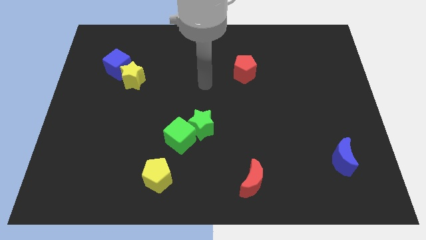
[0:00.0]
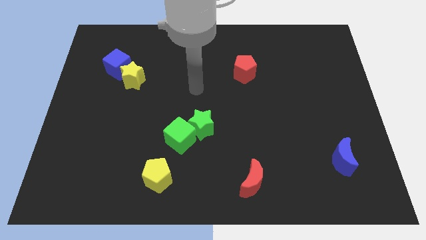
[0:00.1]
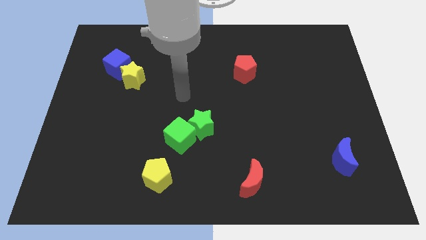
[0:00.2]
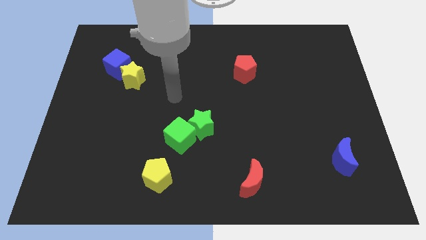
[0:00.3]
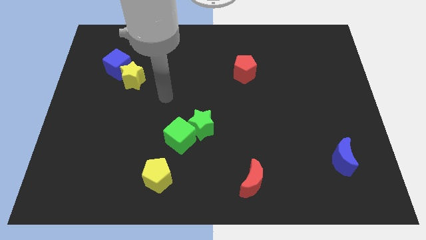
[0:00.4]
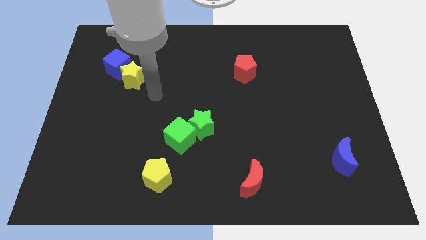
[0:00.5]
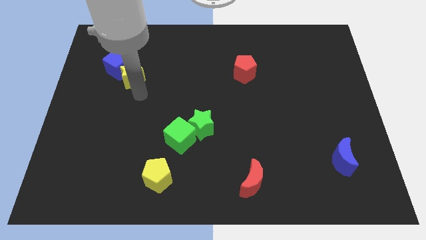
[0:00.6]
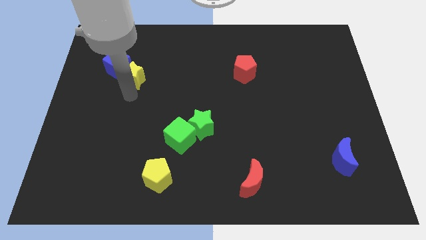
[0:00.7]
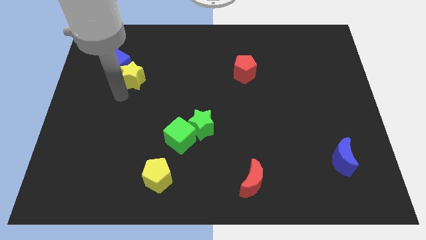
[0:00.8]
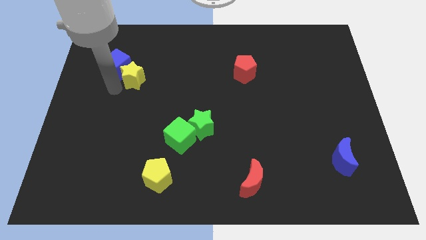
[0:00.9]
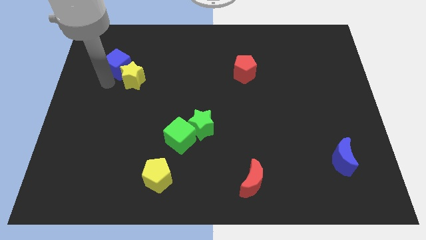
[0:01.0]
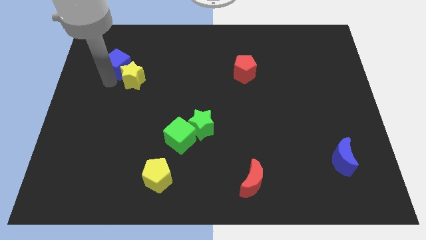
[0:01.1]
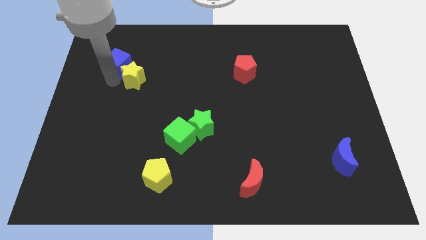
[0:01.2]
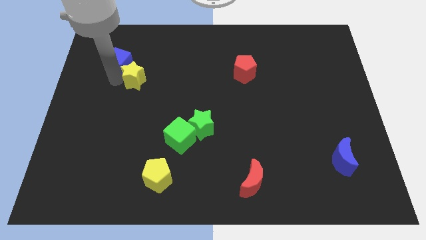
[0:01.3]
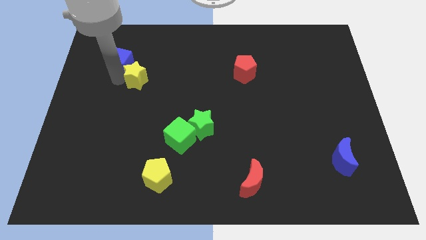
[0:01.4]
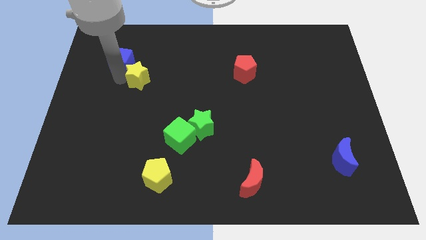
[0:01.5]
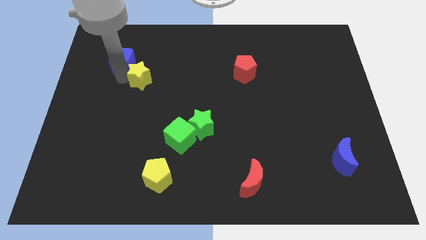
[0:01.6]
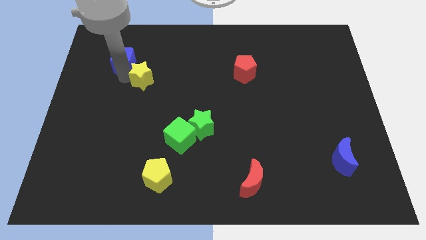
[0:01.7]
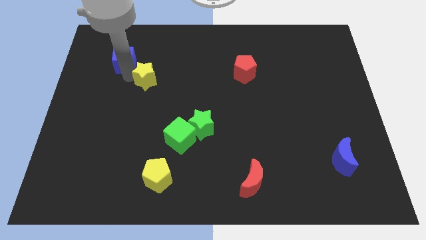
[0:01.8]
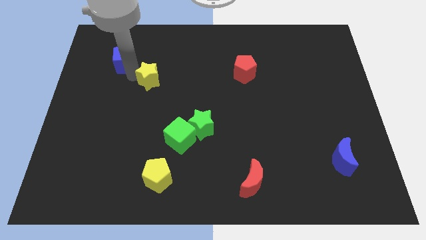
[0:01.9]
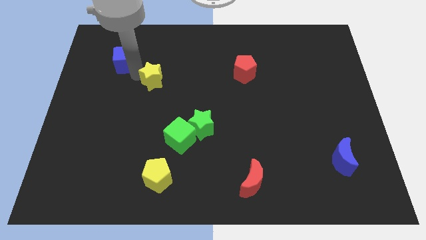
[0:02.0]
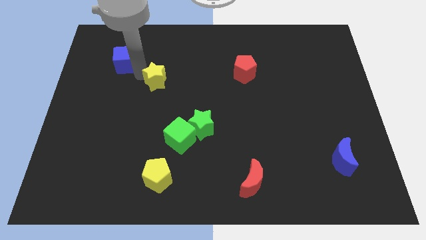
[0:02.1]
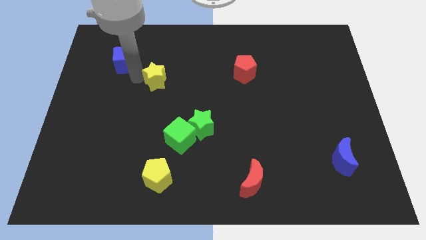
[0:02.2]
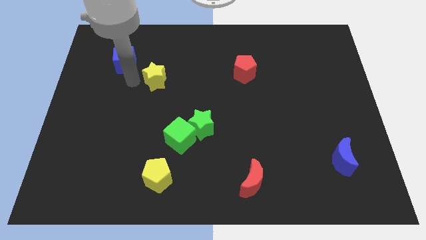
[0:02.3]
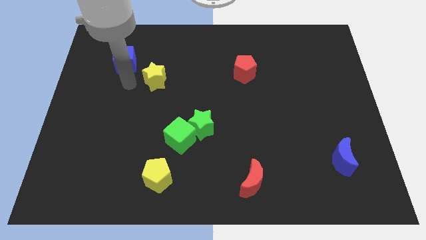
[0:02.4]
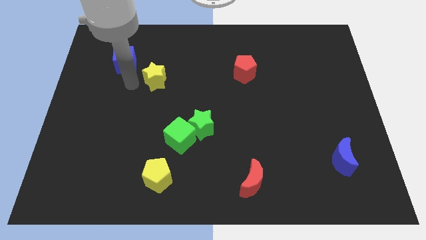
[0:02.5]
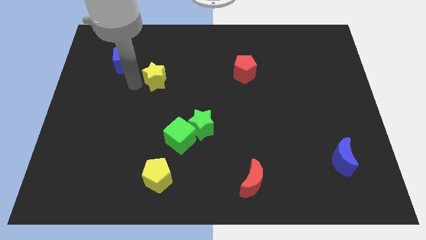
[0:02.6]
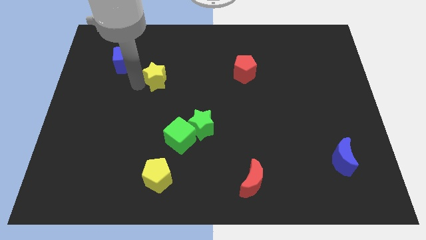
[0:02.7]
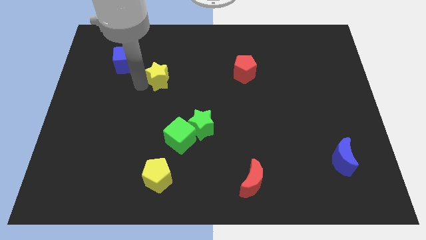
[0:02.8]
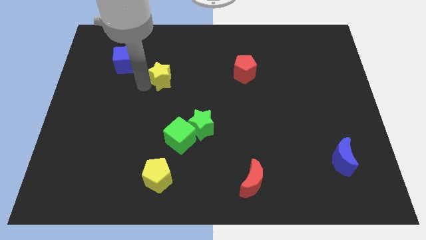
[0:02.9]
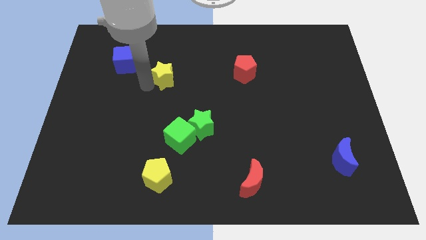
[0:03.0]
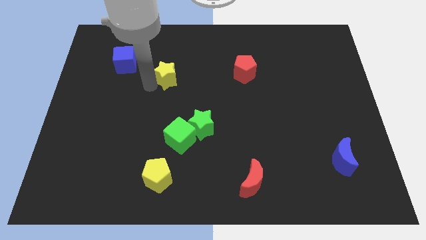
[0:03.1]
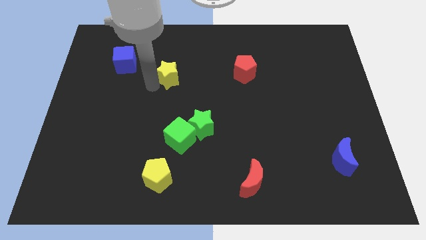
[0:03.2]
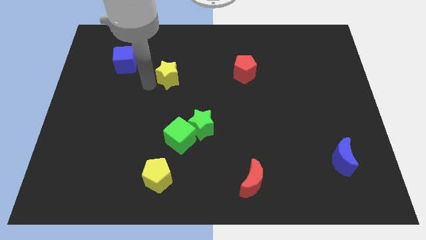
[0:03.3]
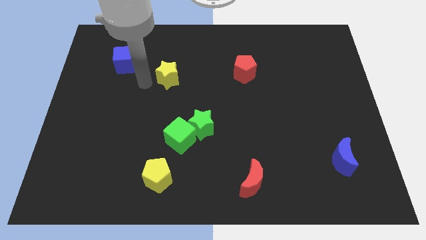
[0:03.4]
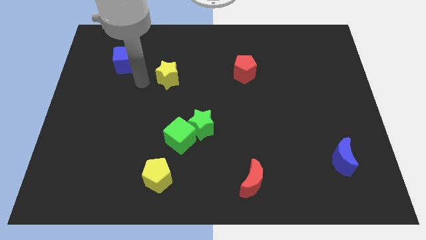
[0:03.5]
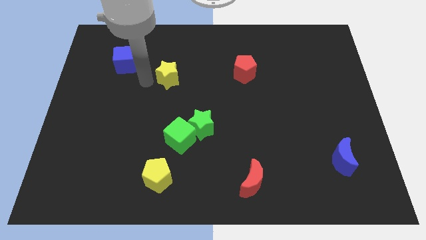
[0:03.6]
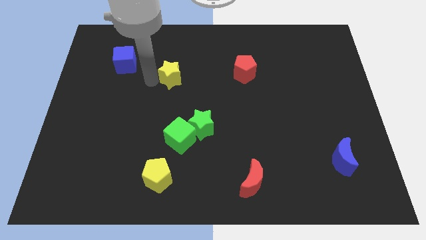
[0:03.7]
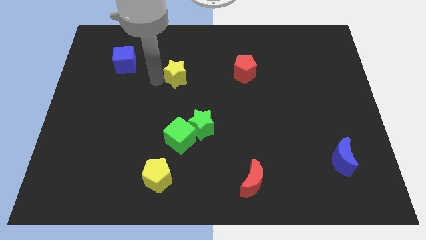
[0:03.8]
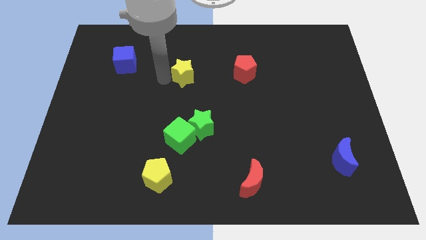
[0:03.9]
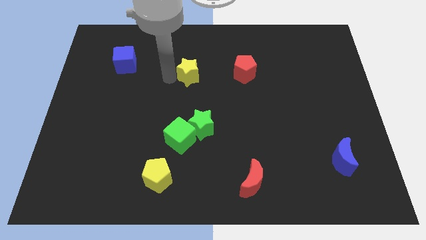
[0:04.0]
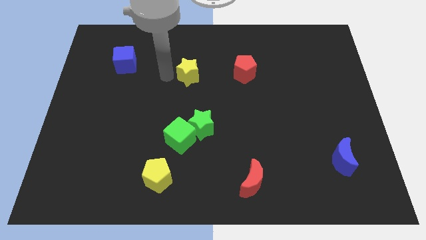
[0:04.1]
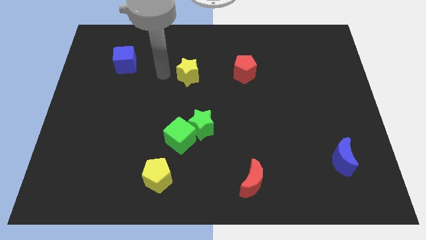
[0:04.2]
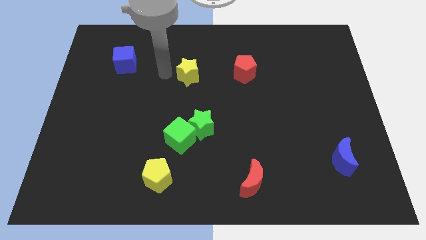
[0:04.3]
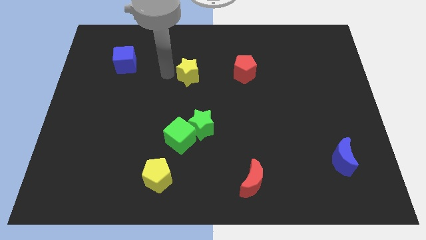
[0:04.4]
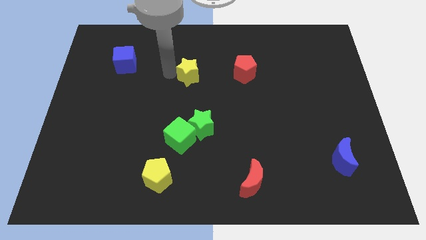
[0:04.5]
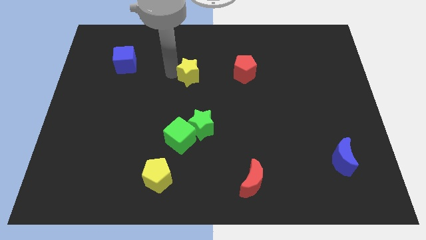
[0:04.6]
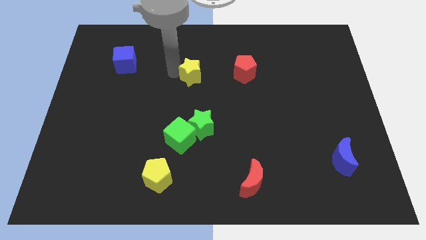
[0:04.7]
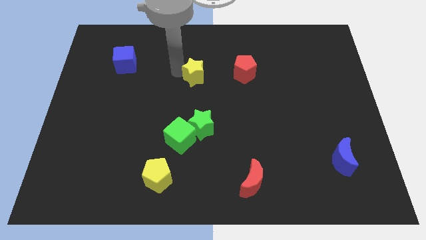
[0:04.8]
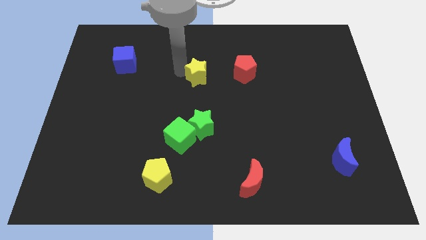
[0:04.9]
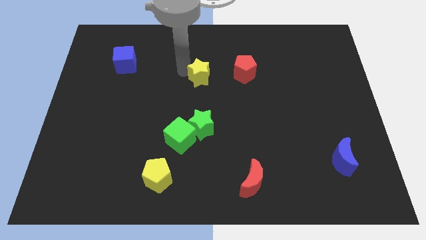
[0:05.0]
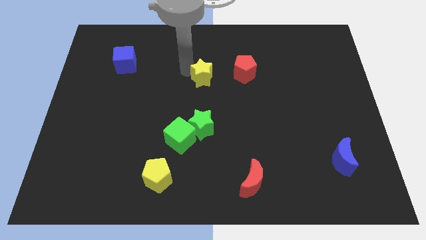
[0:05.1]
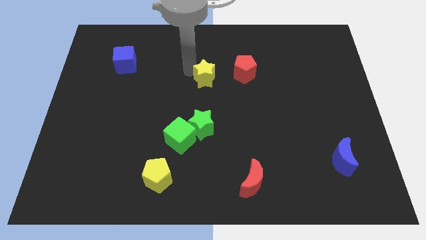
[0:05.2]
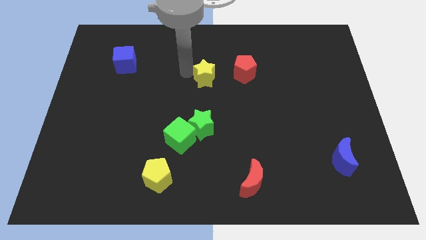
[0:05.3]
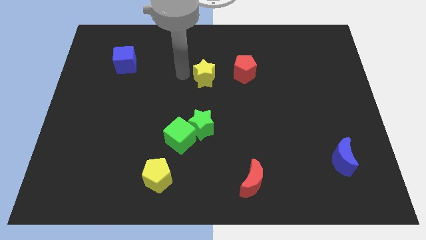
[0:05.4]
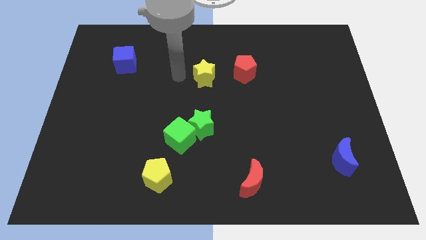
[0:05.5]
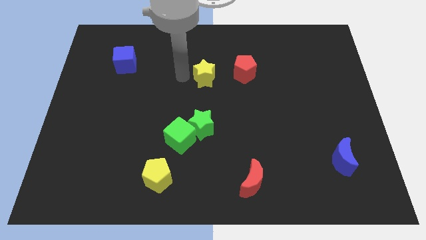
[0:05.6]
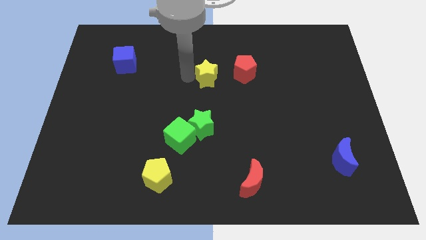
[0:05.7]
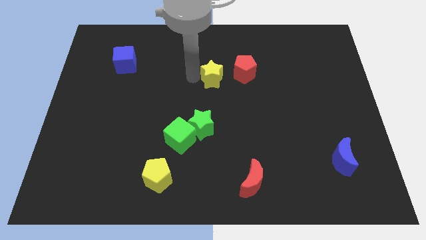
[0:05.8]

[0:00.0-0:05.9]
push the yellow star to the right

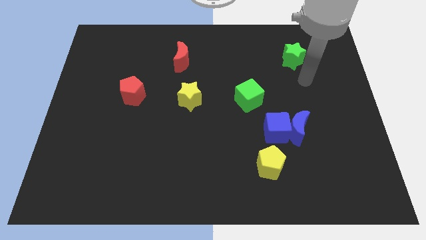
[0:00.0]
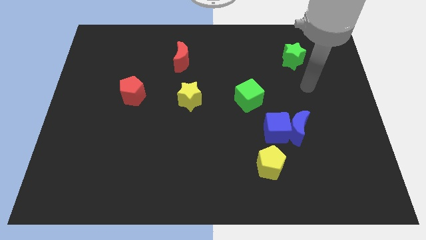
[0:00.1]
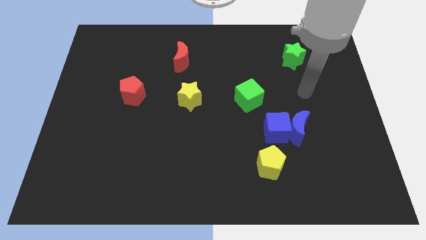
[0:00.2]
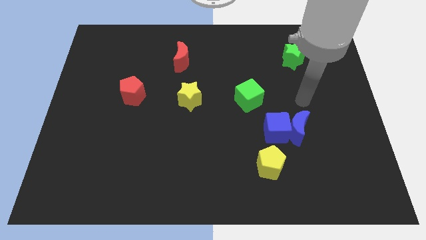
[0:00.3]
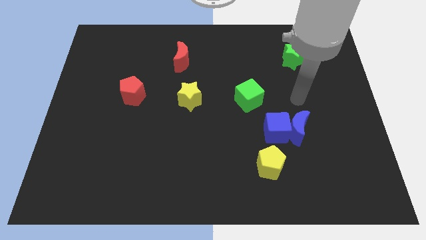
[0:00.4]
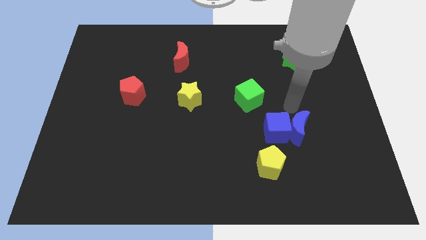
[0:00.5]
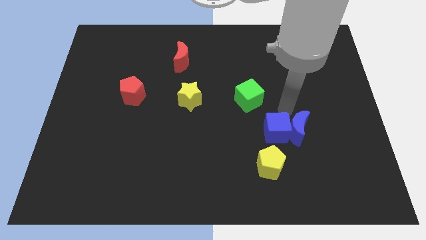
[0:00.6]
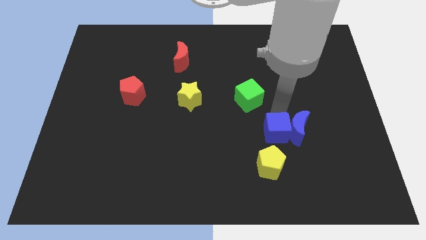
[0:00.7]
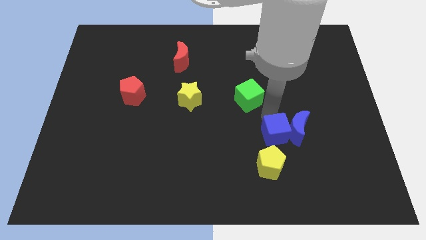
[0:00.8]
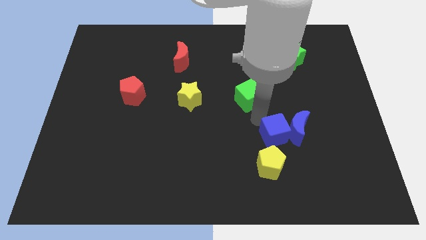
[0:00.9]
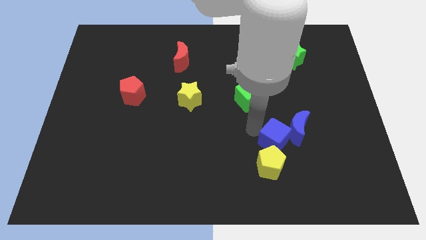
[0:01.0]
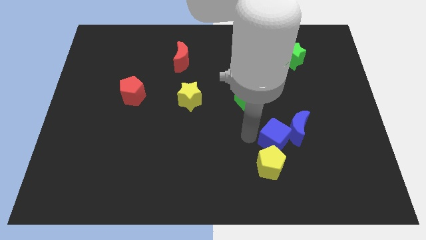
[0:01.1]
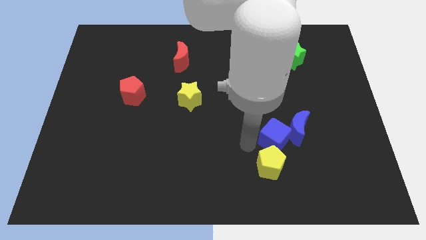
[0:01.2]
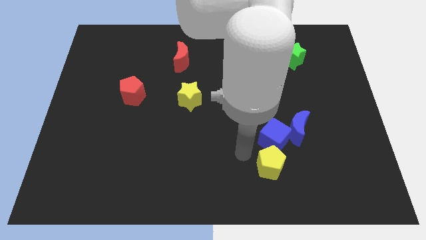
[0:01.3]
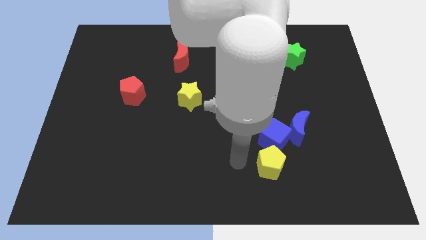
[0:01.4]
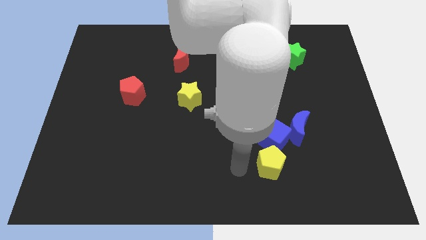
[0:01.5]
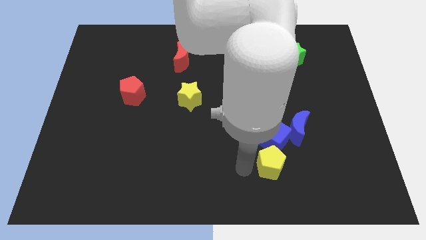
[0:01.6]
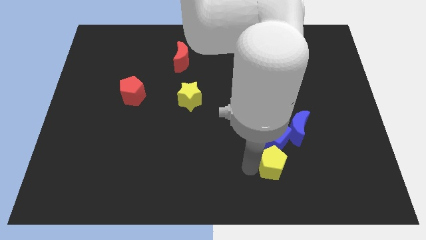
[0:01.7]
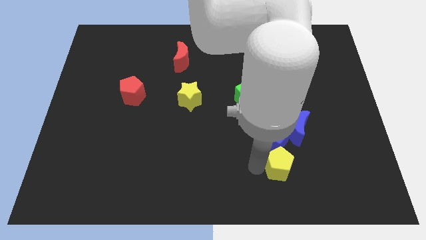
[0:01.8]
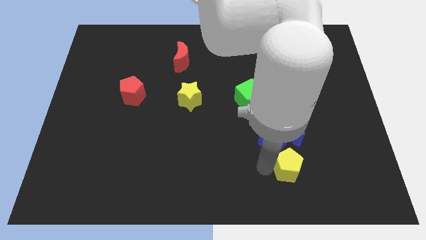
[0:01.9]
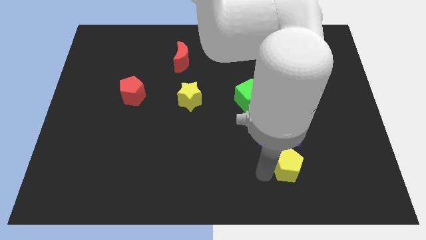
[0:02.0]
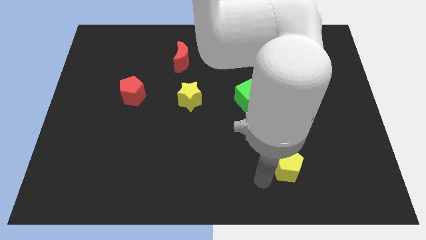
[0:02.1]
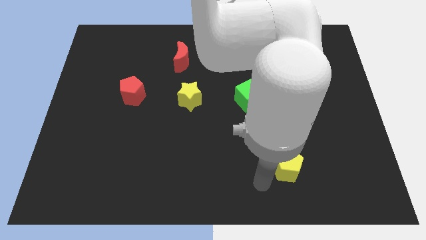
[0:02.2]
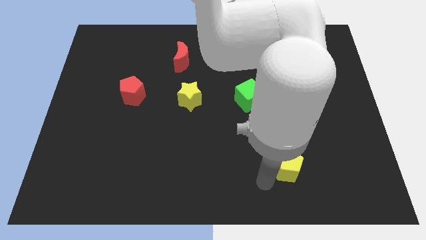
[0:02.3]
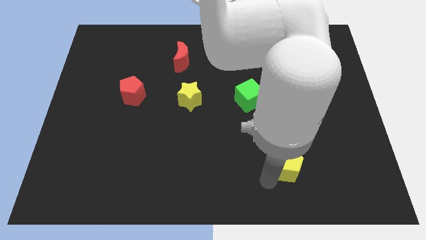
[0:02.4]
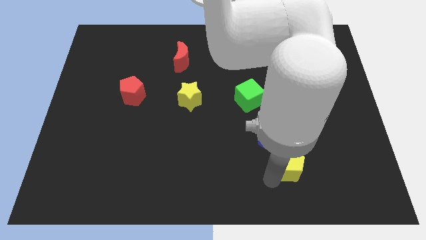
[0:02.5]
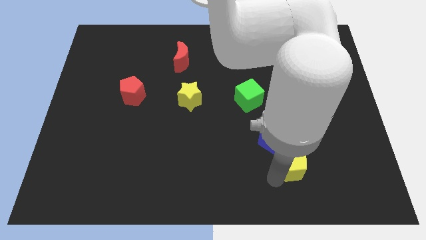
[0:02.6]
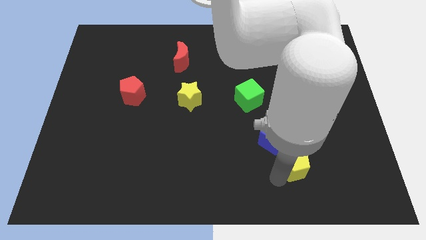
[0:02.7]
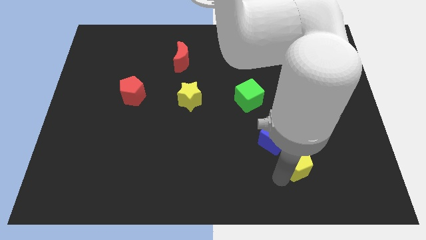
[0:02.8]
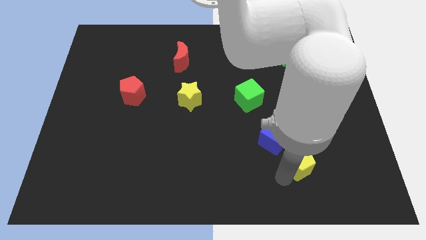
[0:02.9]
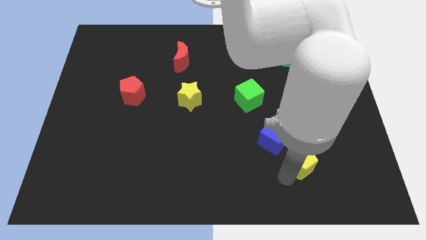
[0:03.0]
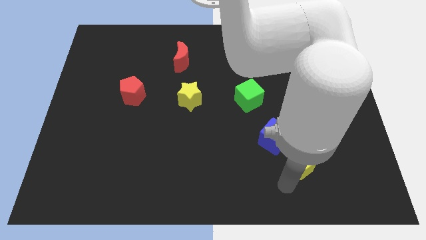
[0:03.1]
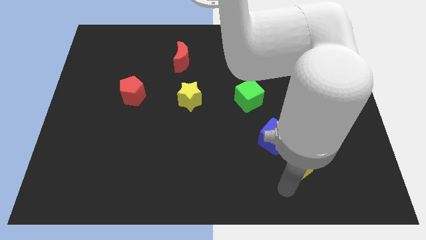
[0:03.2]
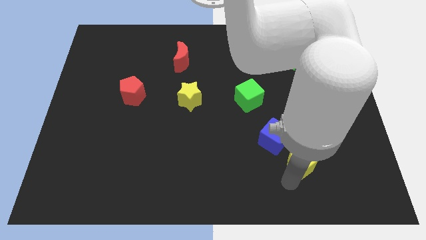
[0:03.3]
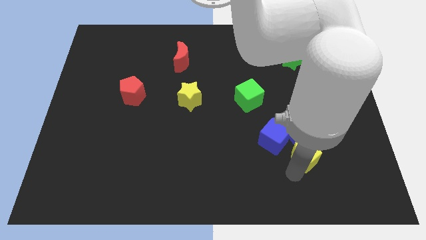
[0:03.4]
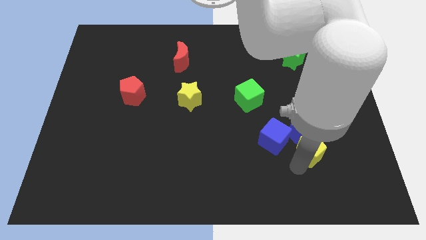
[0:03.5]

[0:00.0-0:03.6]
slide the yellow pentagon diagonally up and to the right a little
